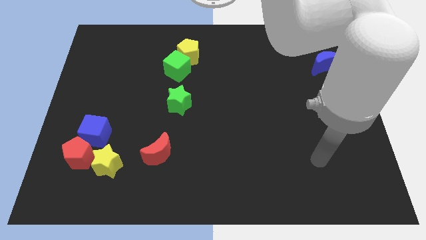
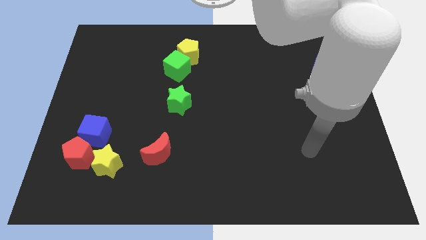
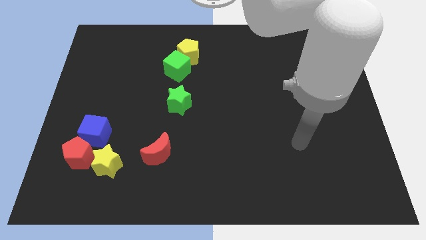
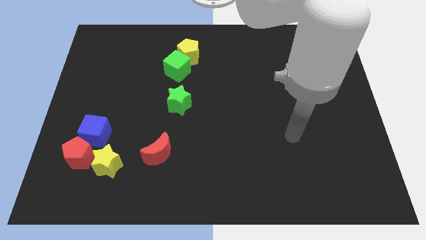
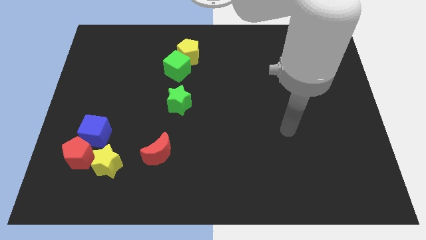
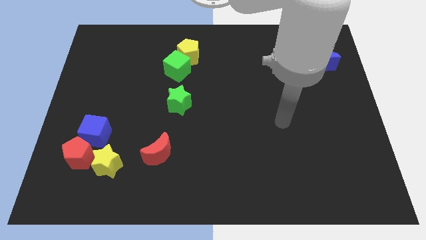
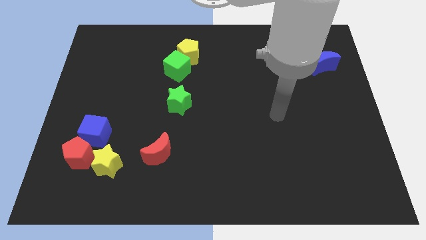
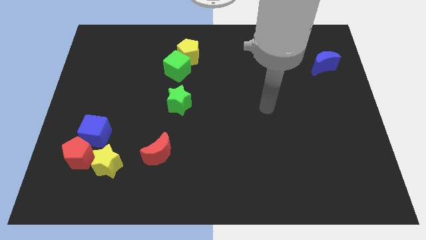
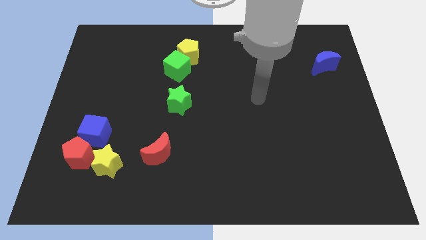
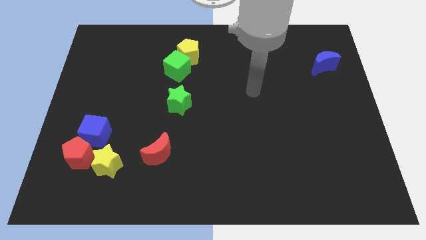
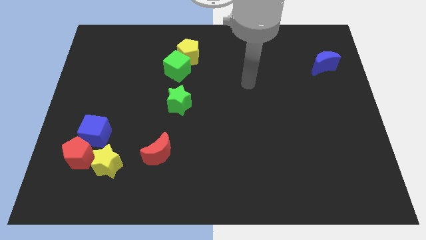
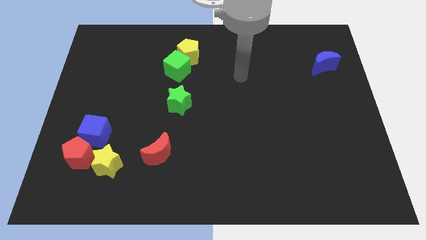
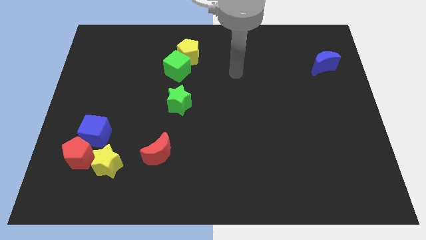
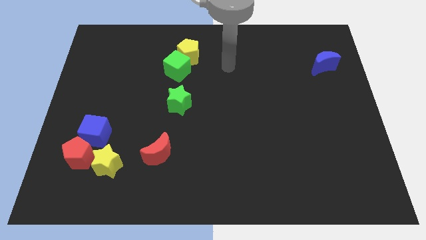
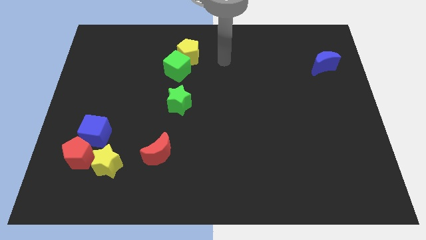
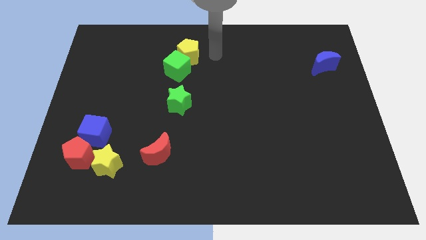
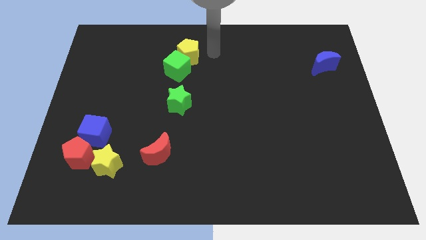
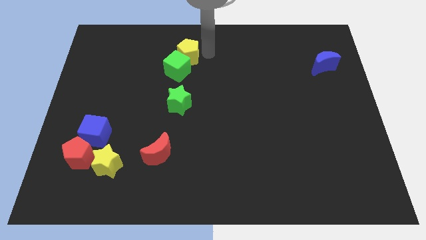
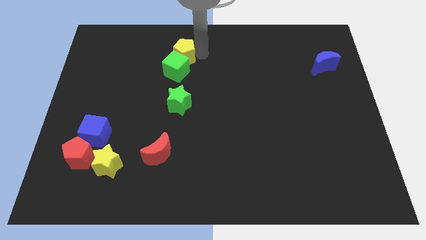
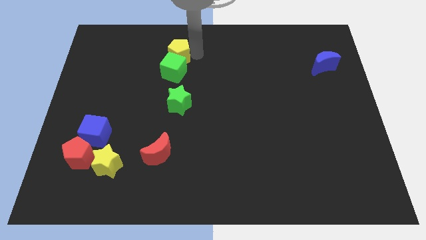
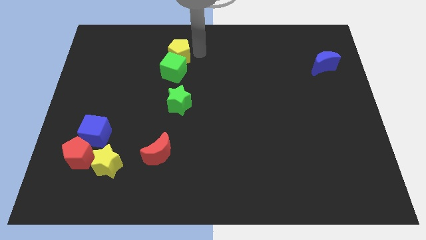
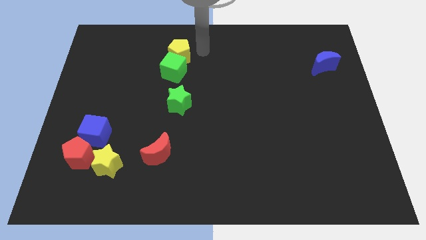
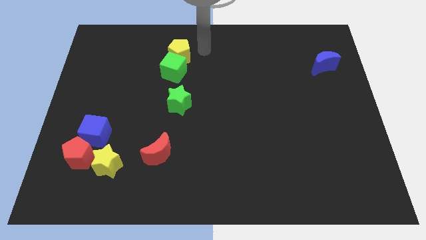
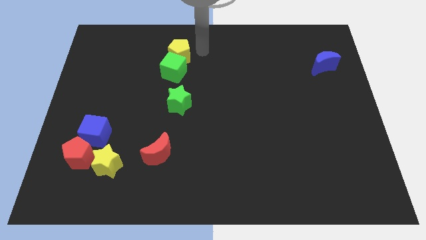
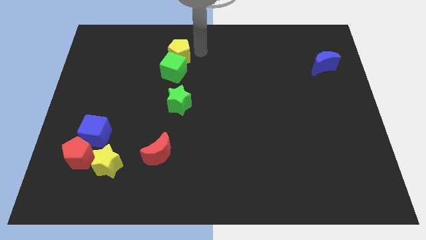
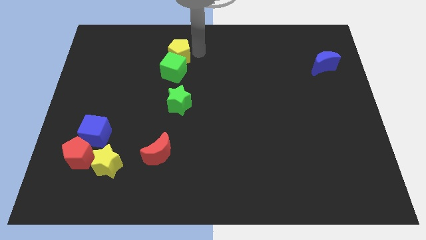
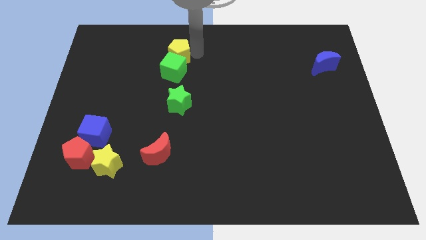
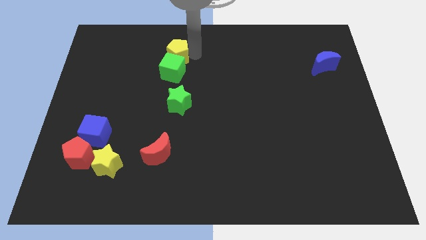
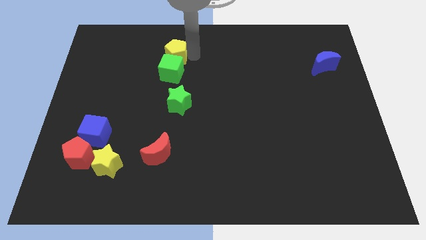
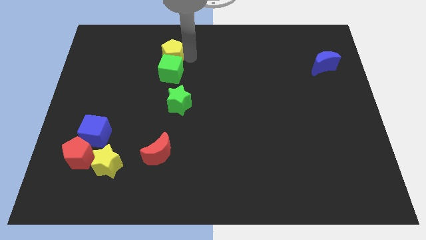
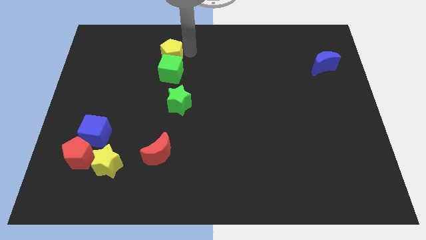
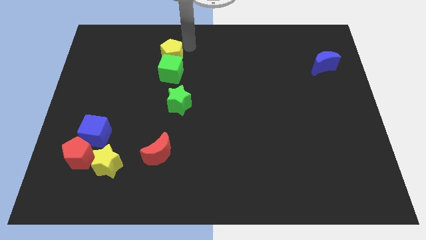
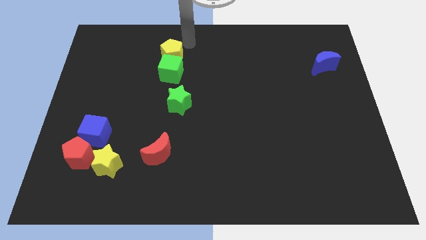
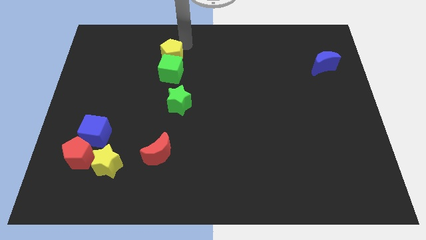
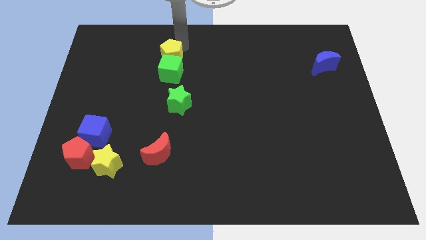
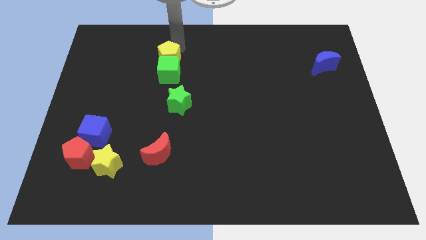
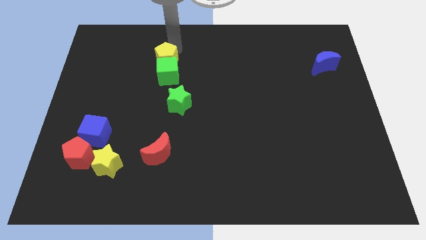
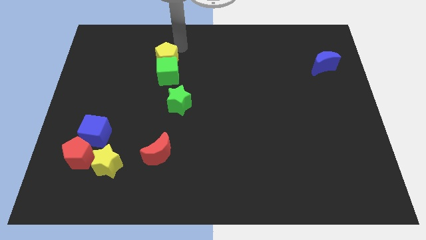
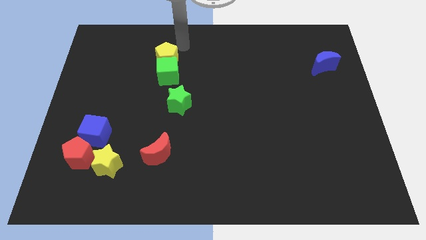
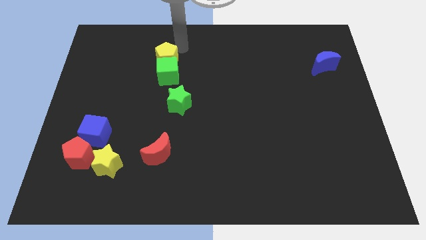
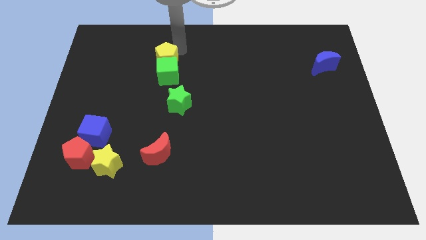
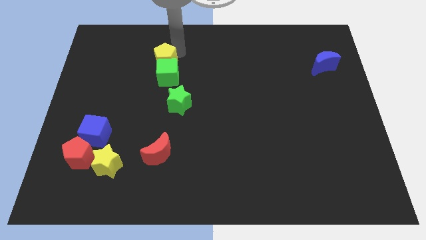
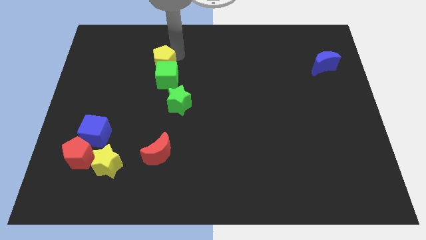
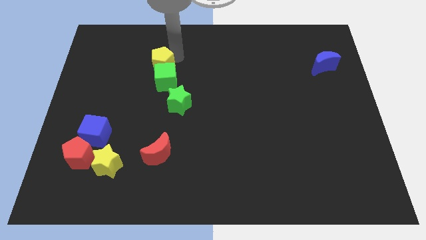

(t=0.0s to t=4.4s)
slightly move the yellow pentagon downwards and then left

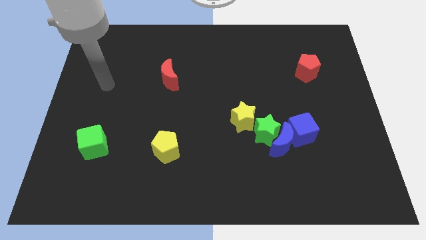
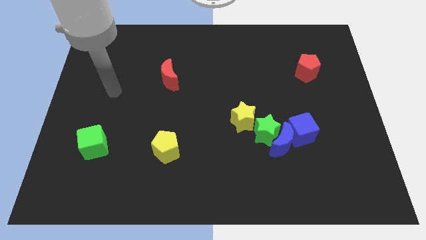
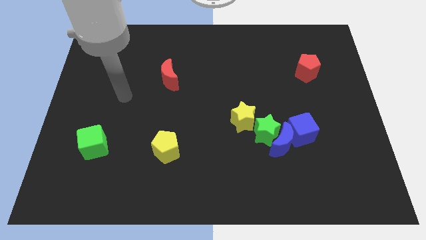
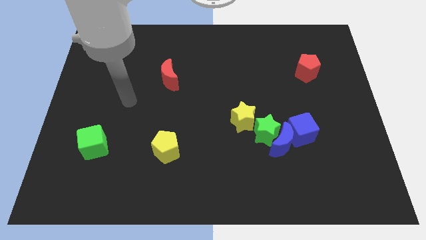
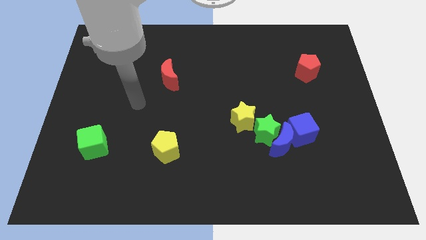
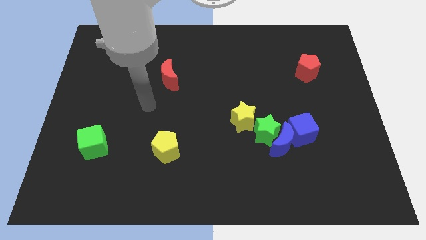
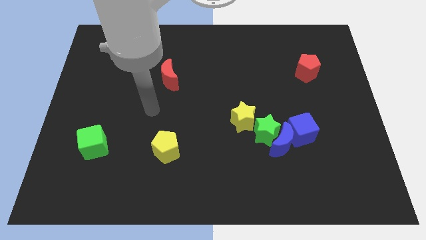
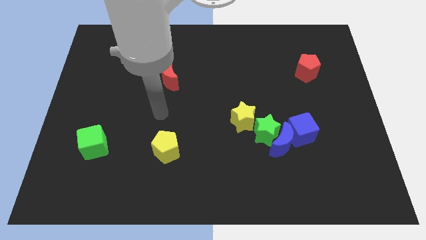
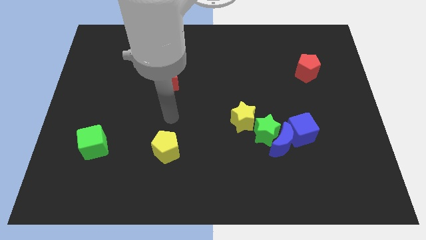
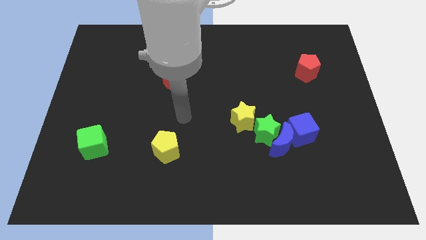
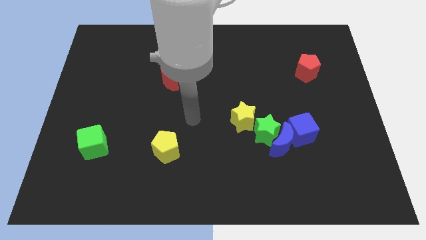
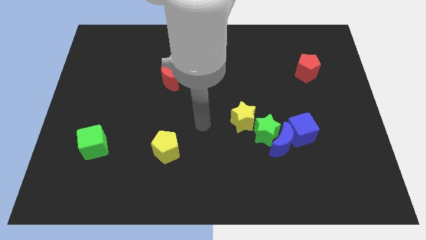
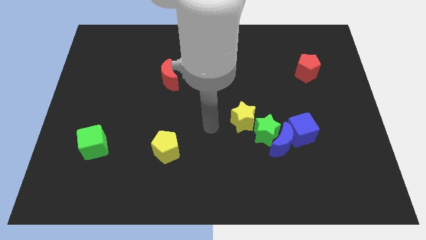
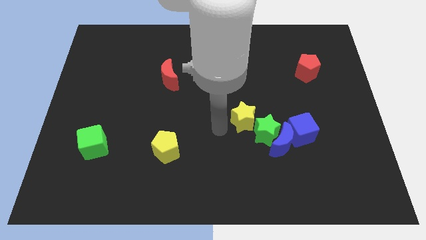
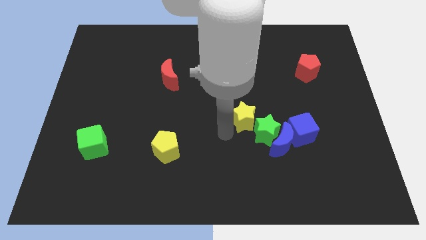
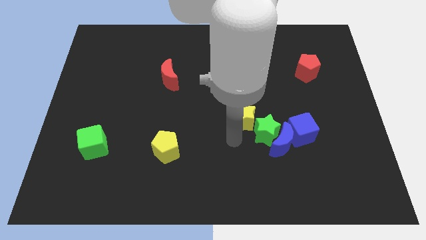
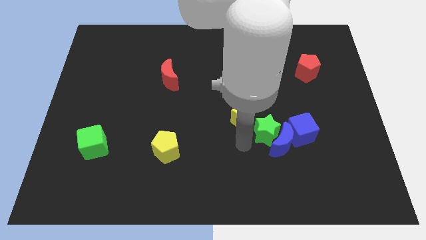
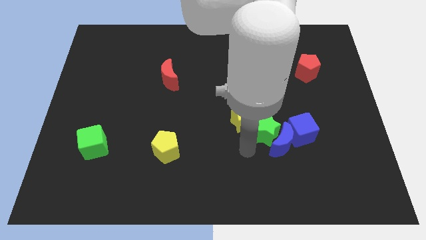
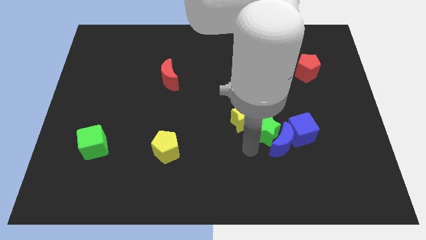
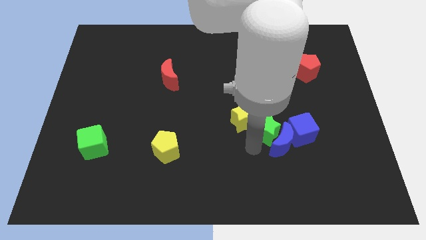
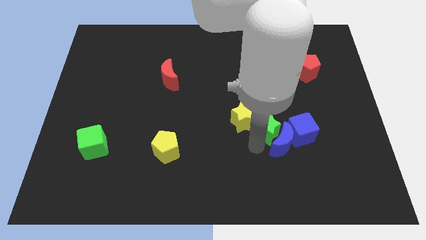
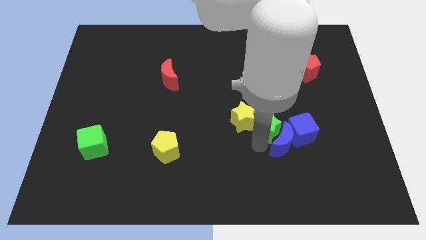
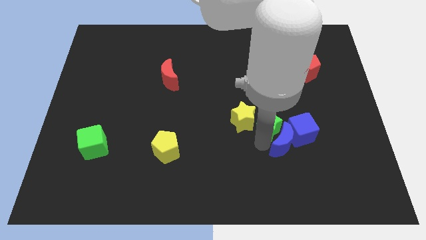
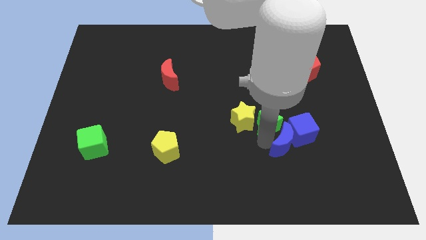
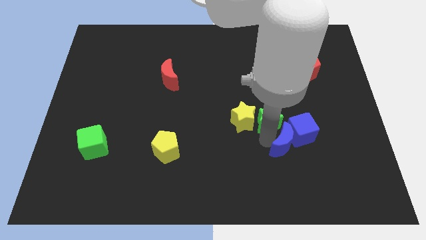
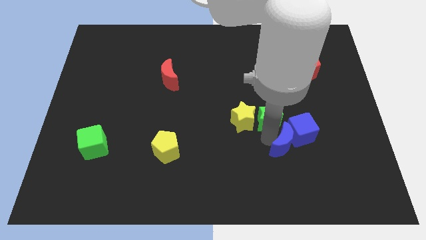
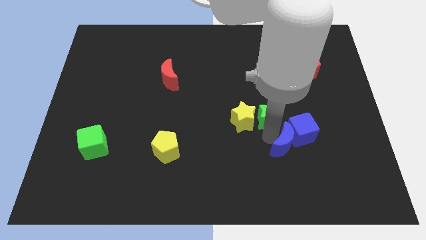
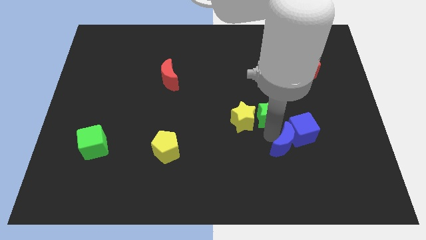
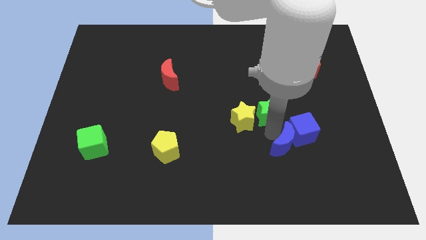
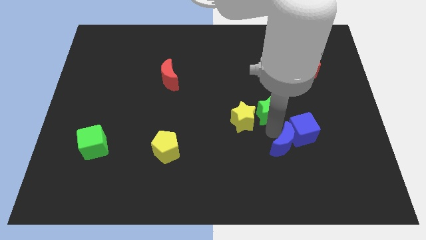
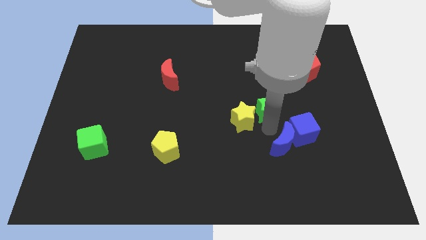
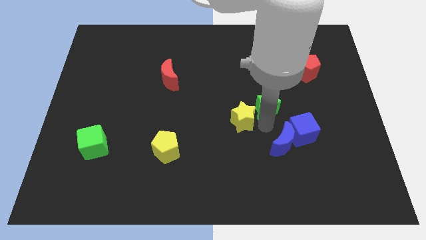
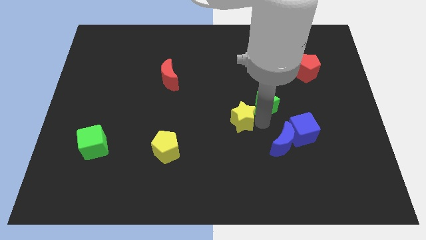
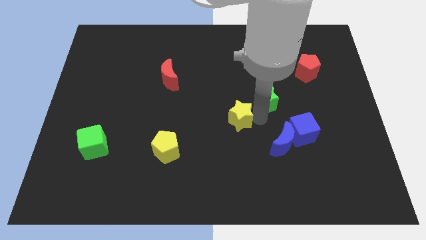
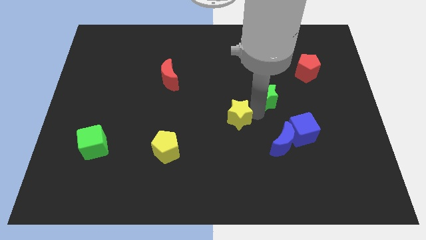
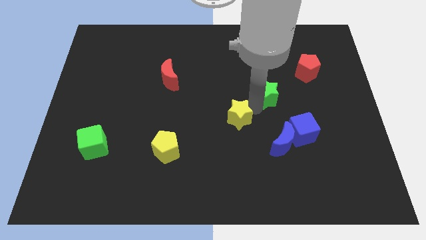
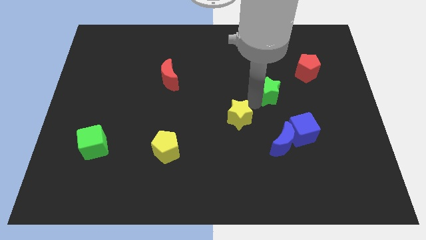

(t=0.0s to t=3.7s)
slide the green star up and right diagonally slightly
